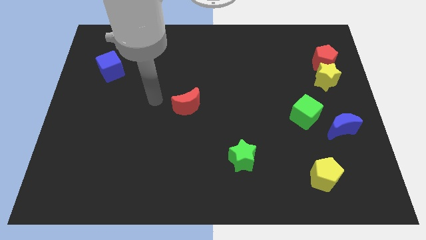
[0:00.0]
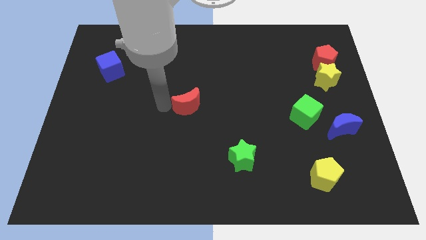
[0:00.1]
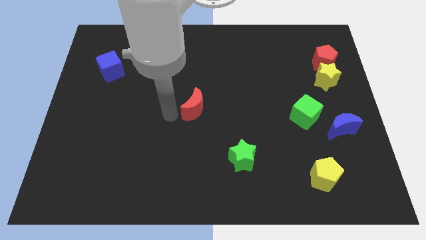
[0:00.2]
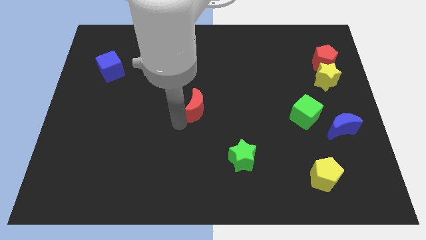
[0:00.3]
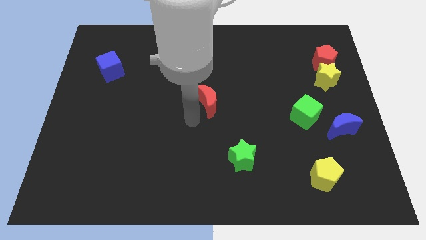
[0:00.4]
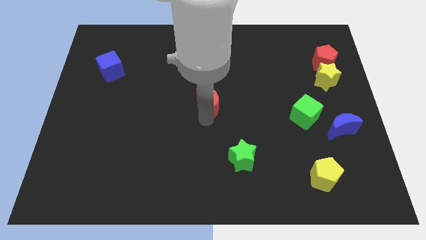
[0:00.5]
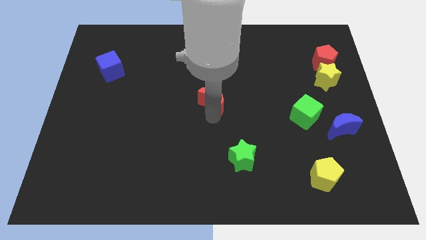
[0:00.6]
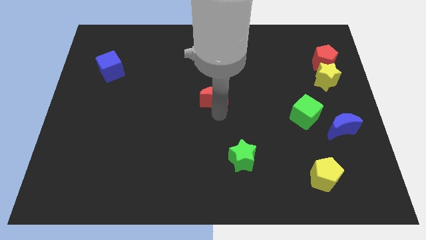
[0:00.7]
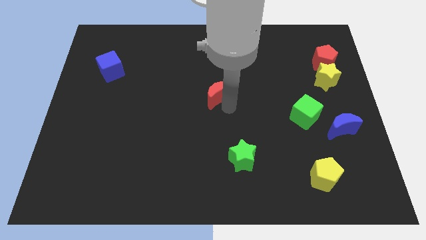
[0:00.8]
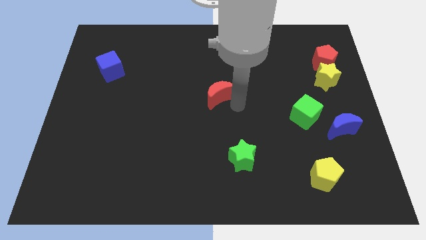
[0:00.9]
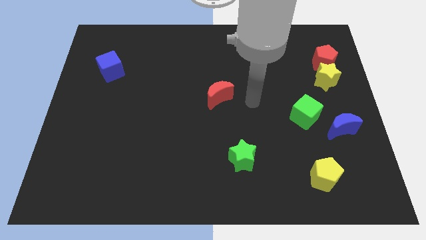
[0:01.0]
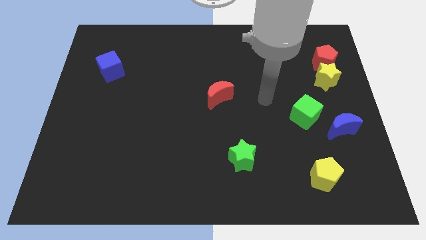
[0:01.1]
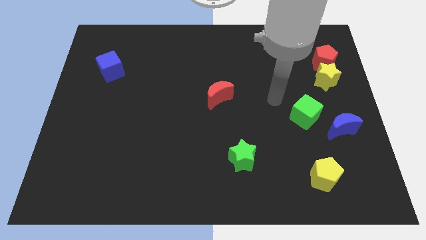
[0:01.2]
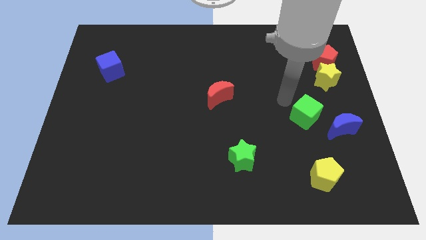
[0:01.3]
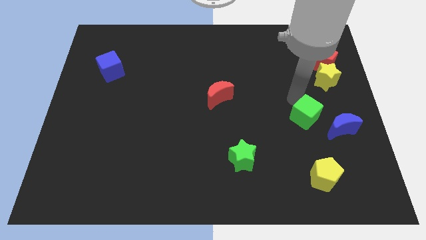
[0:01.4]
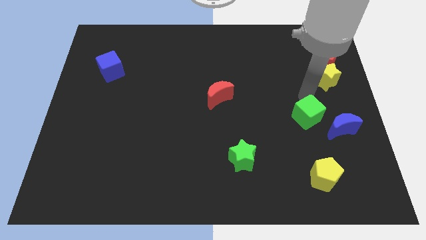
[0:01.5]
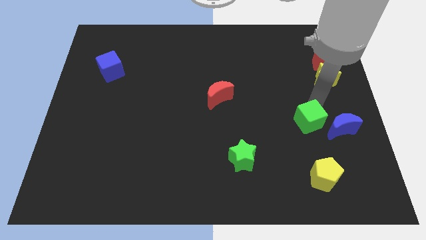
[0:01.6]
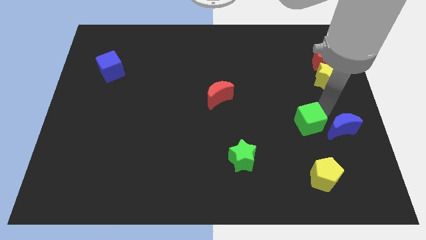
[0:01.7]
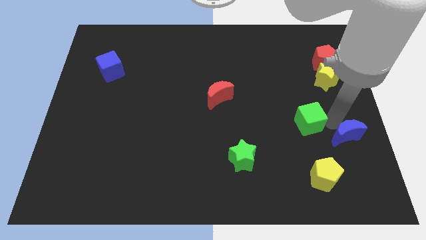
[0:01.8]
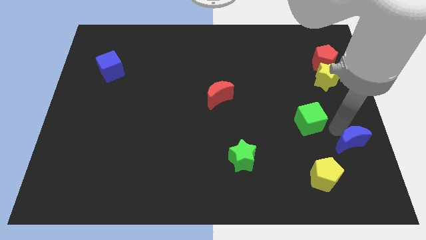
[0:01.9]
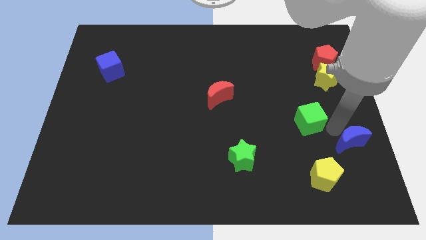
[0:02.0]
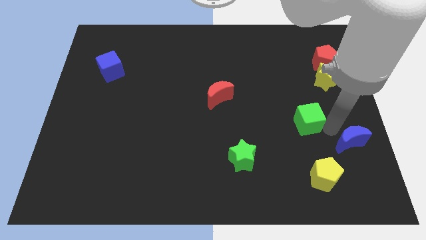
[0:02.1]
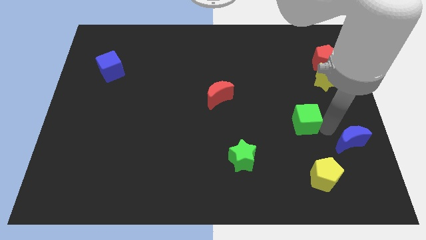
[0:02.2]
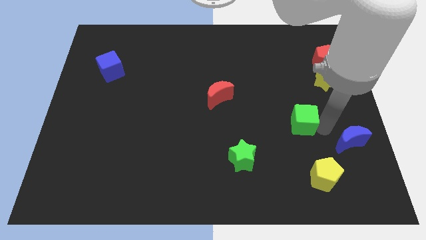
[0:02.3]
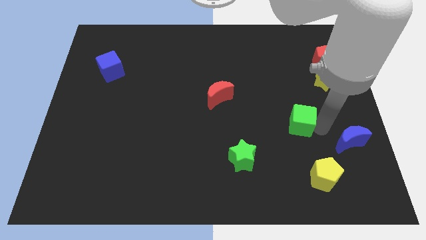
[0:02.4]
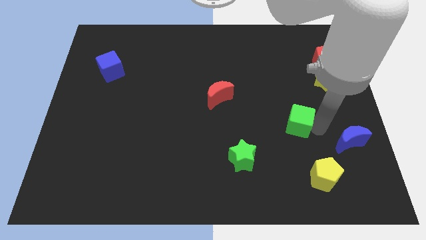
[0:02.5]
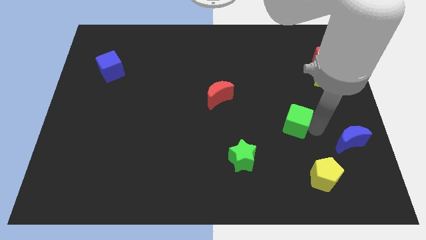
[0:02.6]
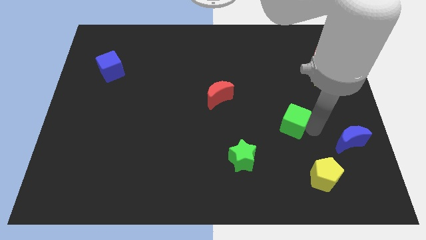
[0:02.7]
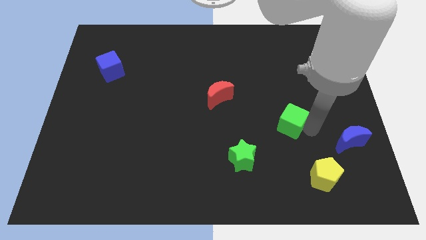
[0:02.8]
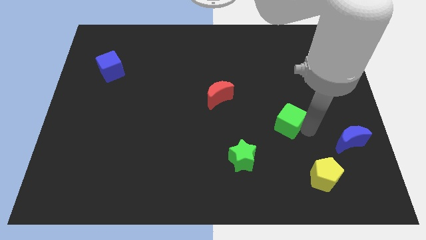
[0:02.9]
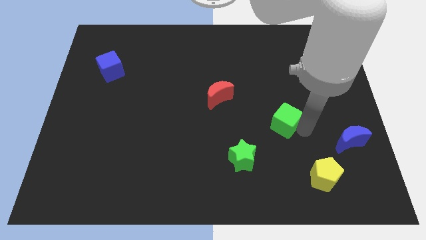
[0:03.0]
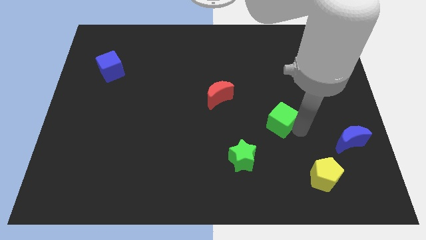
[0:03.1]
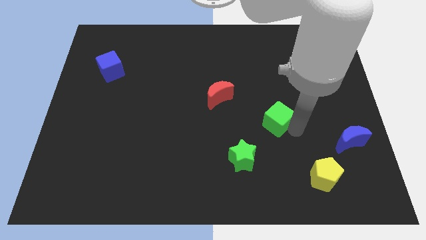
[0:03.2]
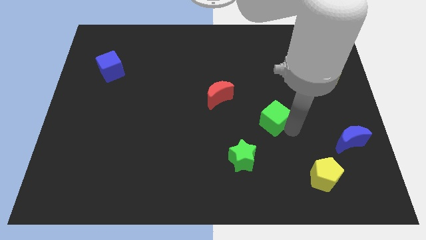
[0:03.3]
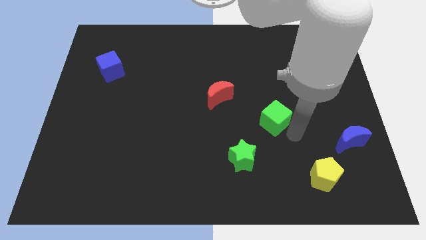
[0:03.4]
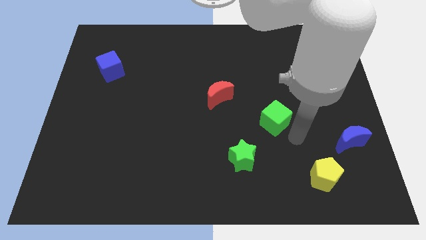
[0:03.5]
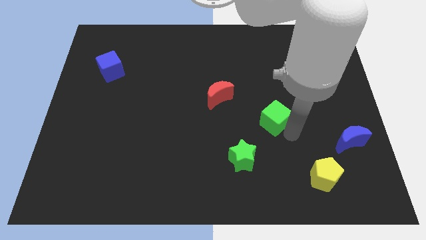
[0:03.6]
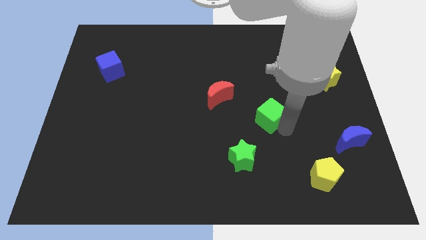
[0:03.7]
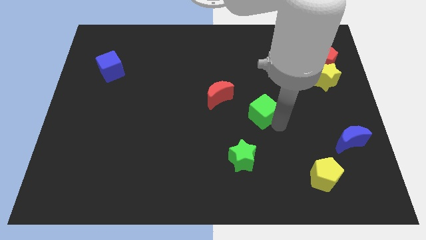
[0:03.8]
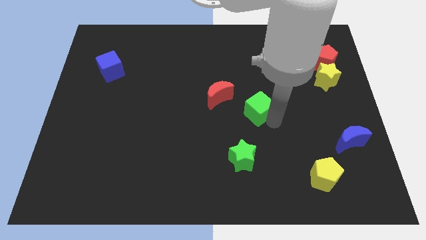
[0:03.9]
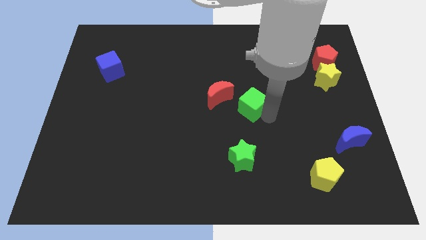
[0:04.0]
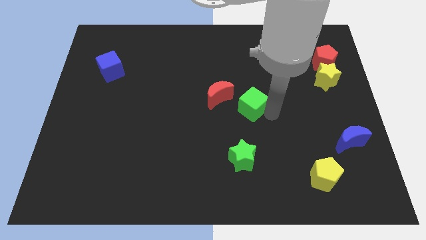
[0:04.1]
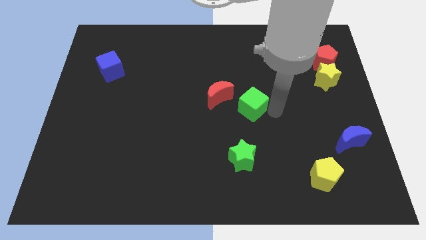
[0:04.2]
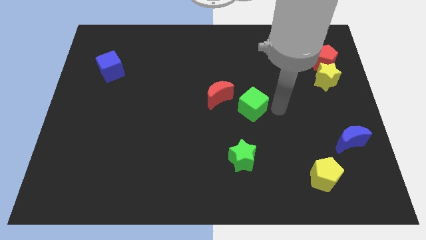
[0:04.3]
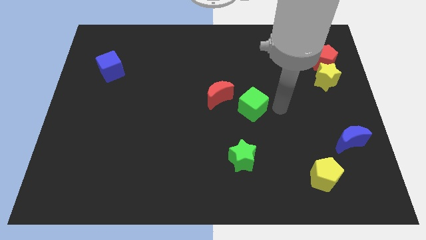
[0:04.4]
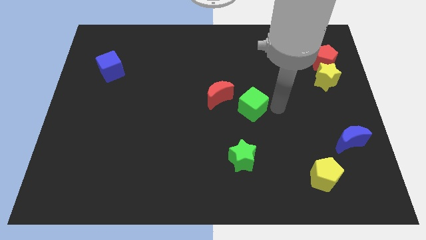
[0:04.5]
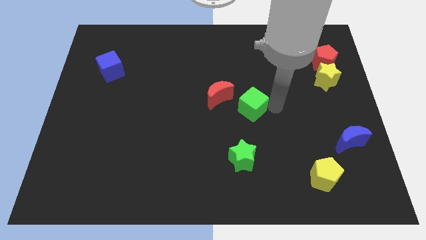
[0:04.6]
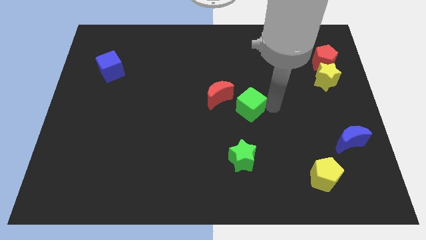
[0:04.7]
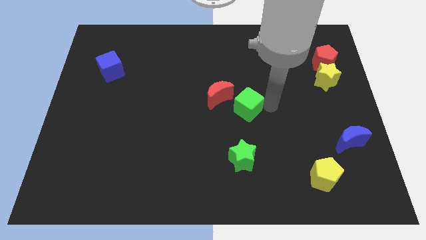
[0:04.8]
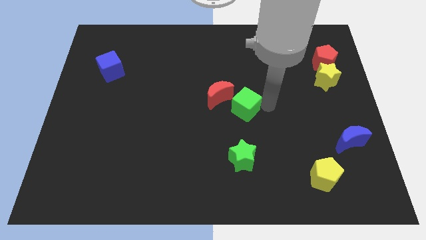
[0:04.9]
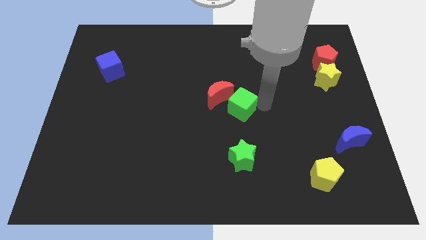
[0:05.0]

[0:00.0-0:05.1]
push the green cube close to the red moon

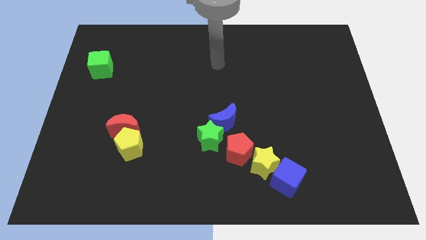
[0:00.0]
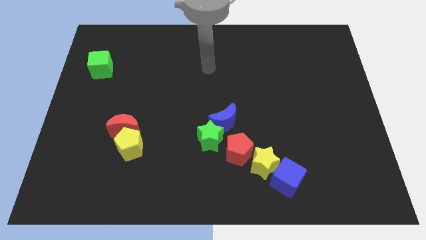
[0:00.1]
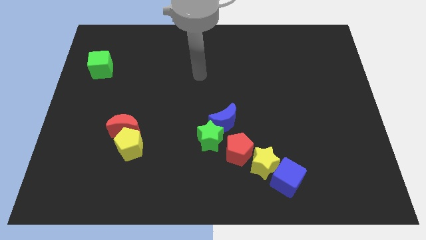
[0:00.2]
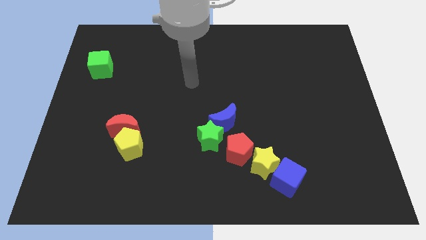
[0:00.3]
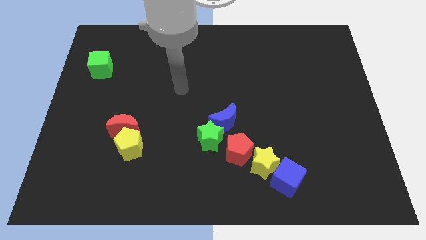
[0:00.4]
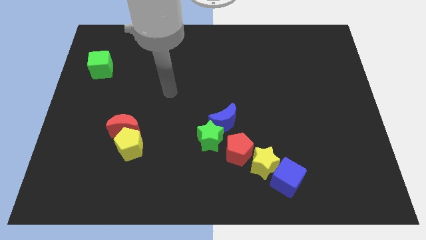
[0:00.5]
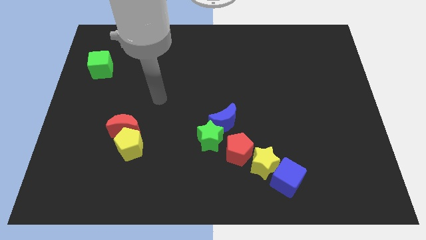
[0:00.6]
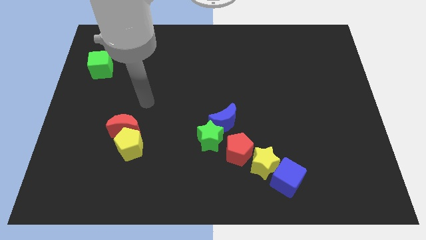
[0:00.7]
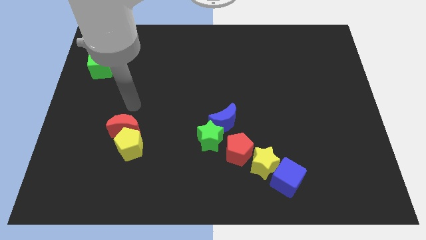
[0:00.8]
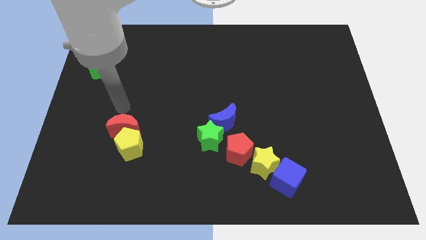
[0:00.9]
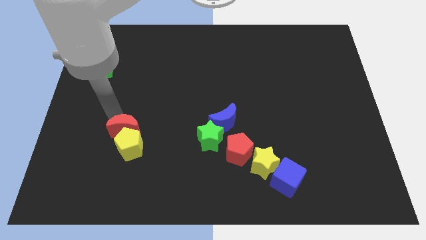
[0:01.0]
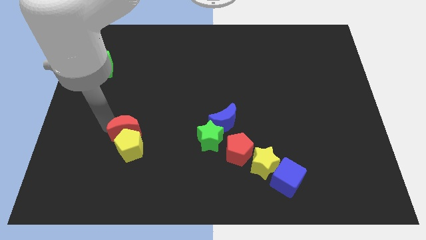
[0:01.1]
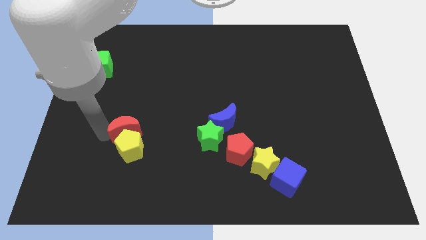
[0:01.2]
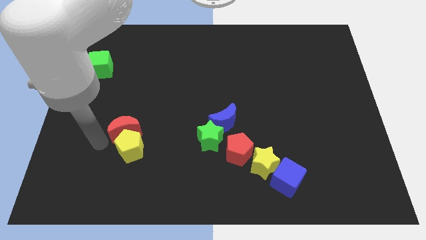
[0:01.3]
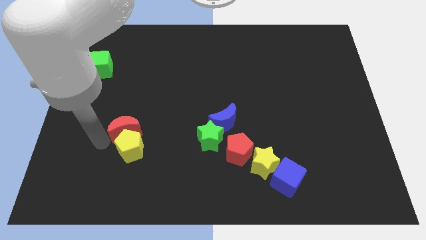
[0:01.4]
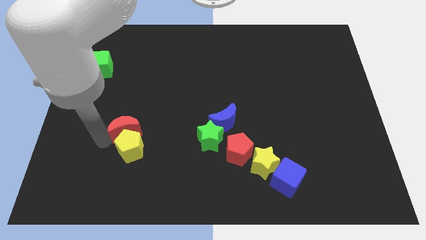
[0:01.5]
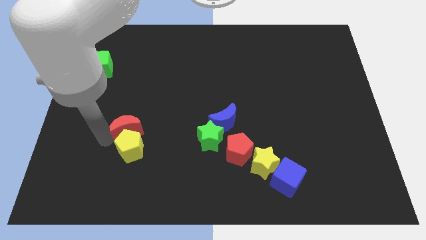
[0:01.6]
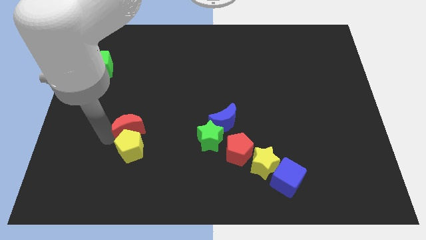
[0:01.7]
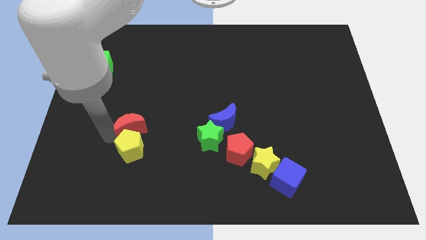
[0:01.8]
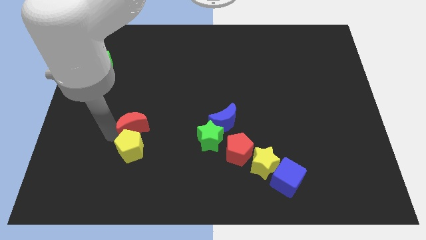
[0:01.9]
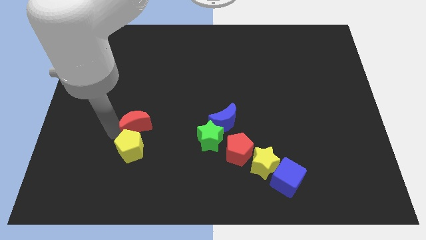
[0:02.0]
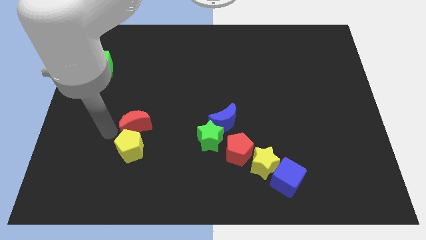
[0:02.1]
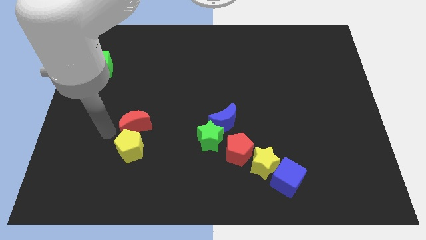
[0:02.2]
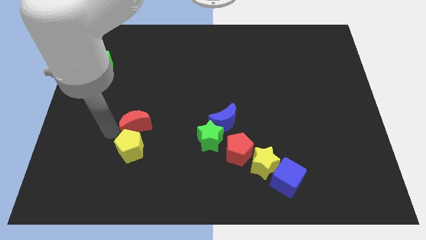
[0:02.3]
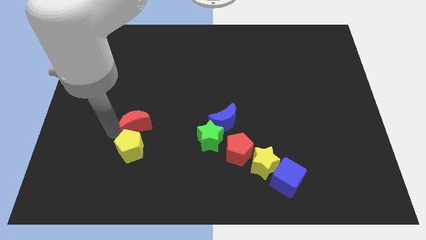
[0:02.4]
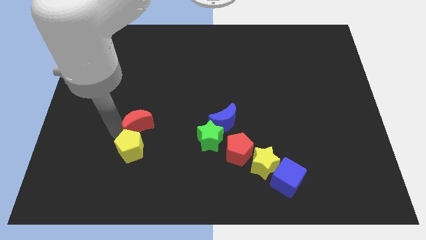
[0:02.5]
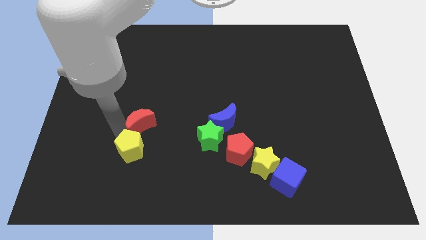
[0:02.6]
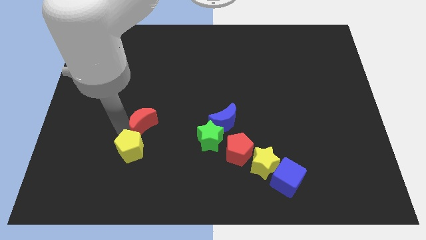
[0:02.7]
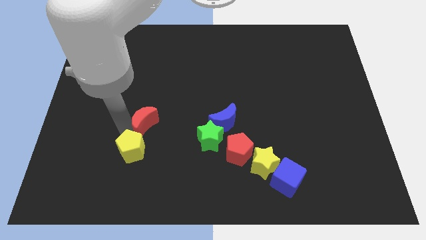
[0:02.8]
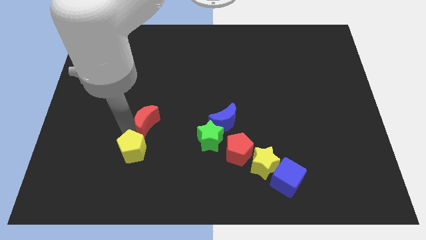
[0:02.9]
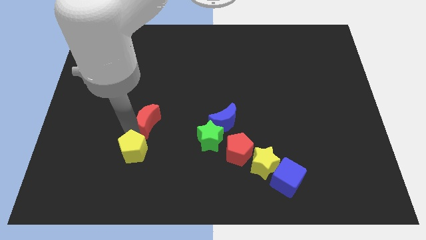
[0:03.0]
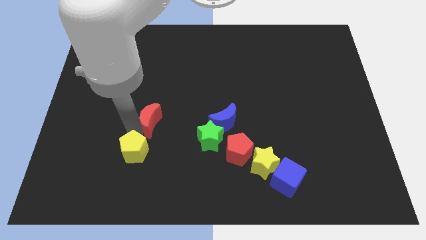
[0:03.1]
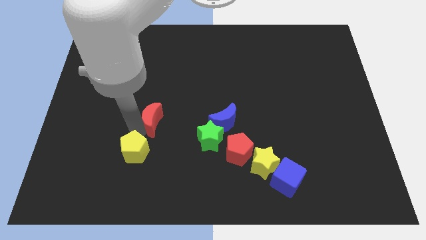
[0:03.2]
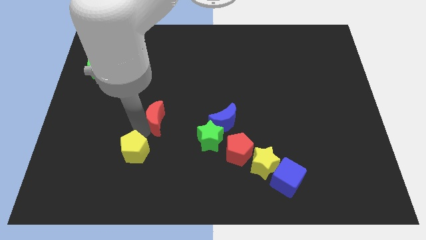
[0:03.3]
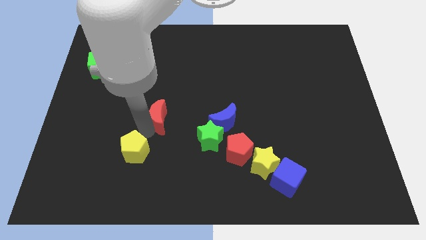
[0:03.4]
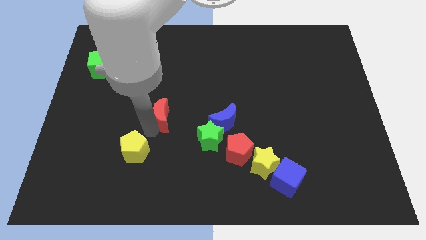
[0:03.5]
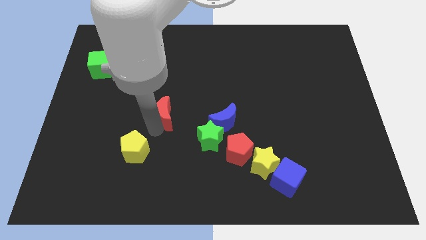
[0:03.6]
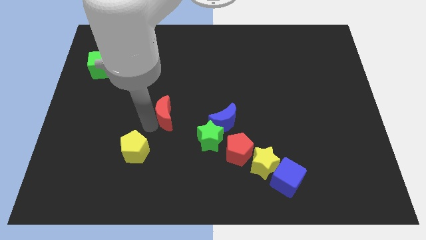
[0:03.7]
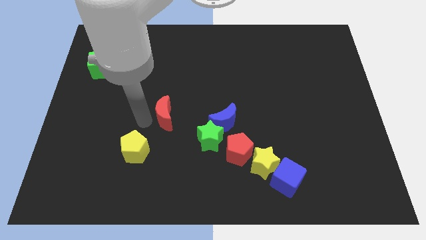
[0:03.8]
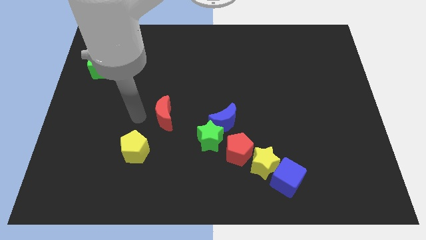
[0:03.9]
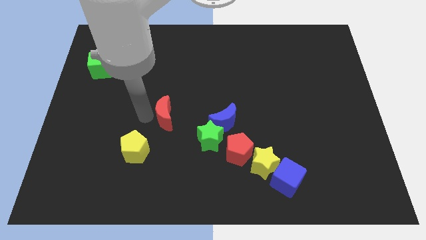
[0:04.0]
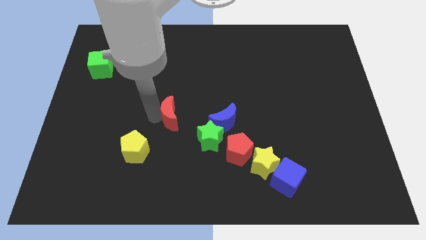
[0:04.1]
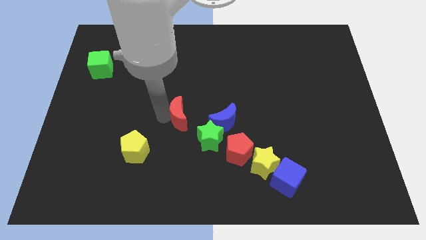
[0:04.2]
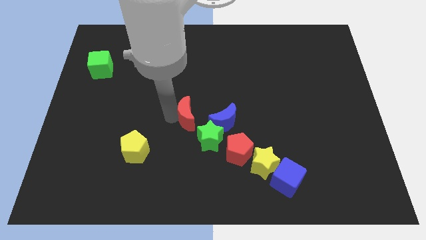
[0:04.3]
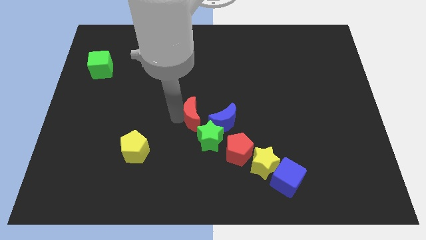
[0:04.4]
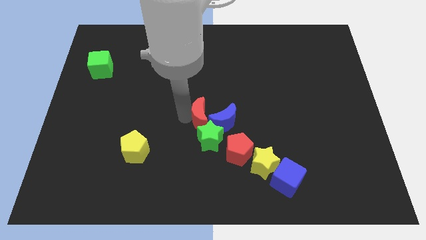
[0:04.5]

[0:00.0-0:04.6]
slide the red moon close to the blue moon
